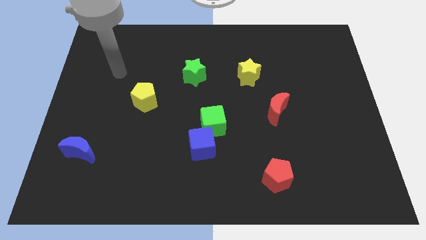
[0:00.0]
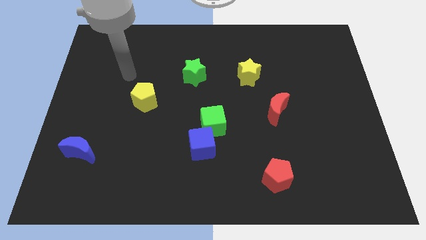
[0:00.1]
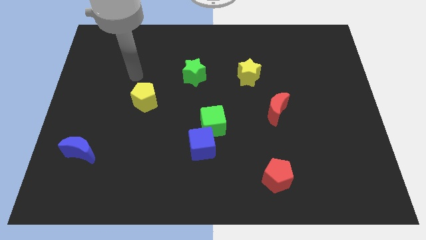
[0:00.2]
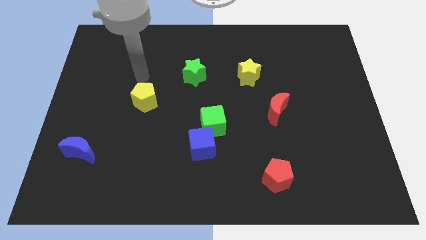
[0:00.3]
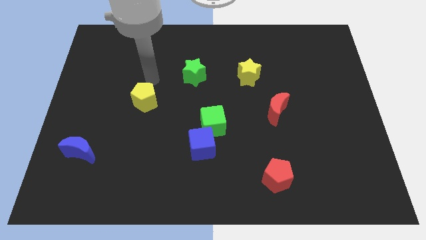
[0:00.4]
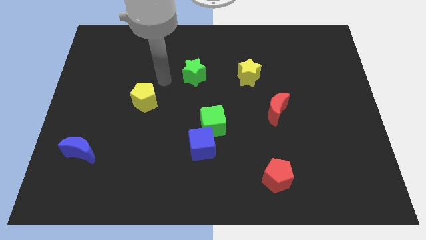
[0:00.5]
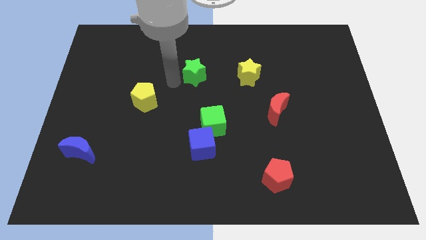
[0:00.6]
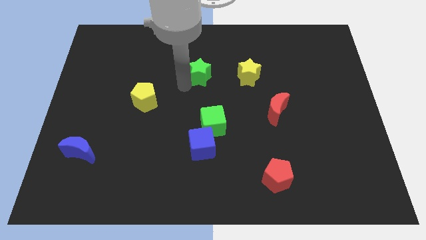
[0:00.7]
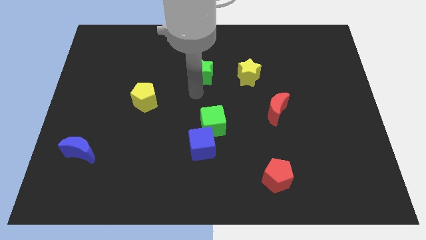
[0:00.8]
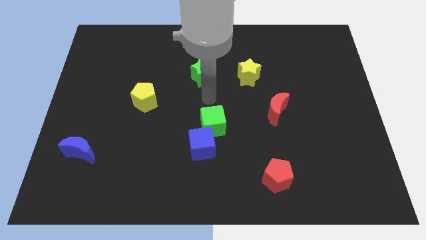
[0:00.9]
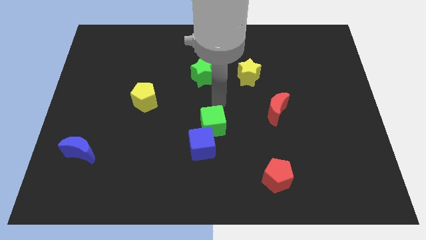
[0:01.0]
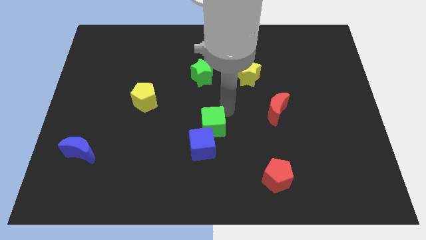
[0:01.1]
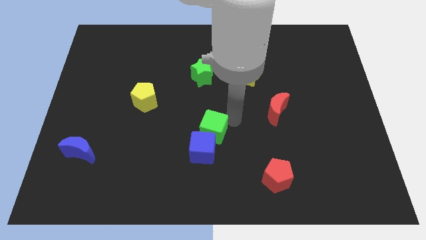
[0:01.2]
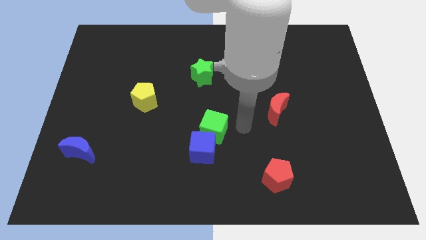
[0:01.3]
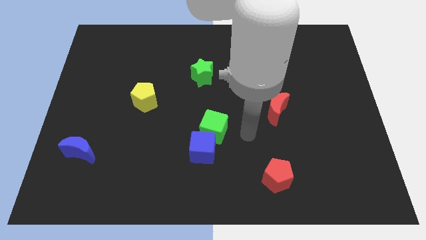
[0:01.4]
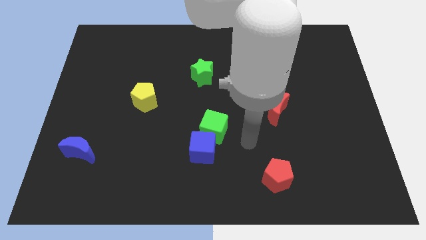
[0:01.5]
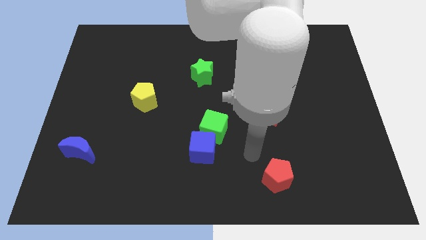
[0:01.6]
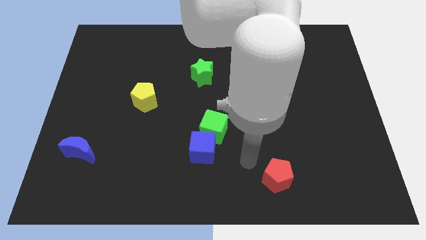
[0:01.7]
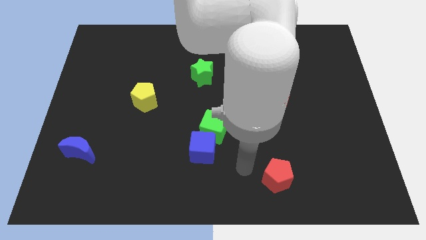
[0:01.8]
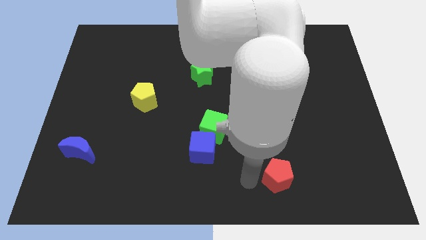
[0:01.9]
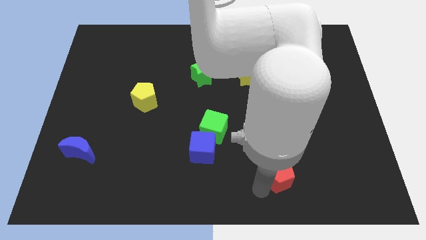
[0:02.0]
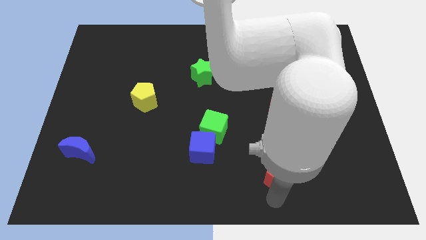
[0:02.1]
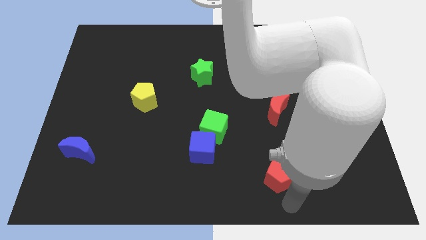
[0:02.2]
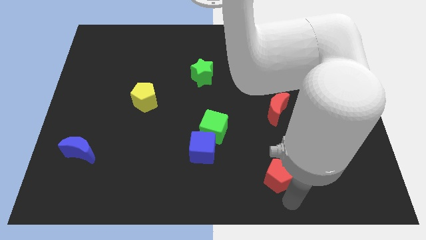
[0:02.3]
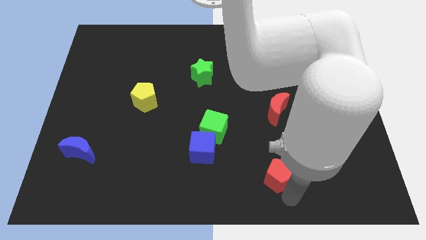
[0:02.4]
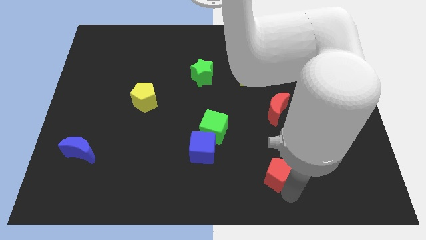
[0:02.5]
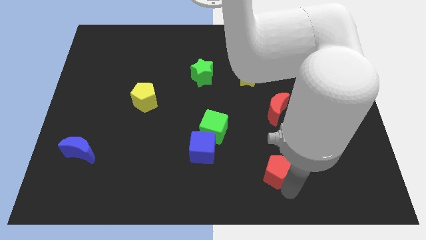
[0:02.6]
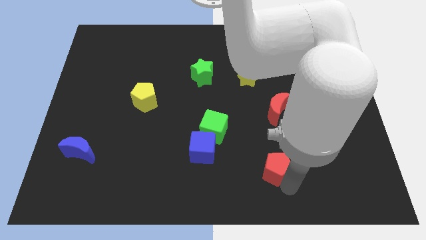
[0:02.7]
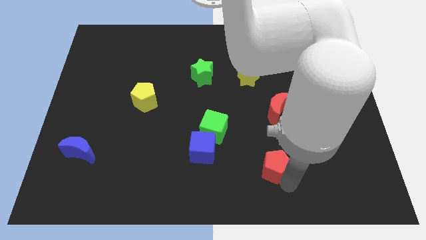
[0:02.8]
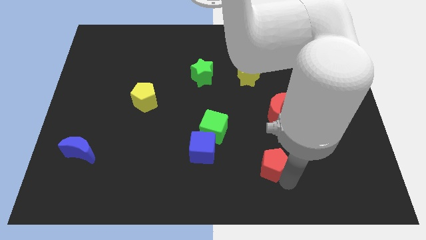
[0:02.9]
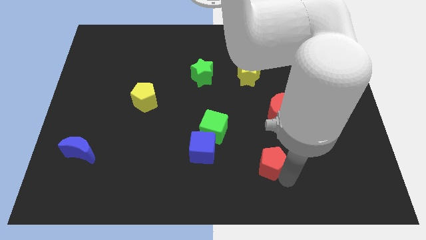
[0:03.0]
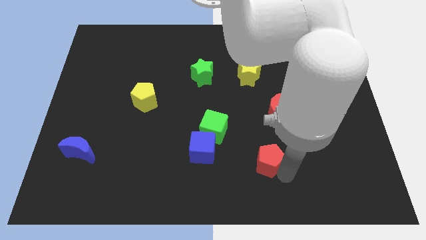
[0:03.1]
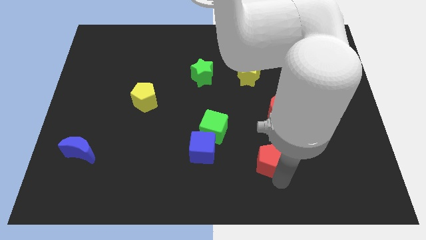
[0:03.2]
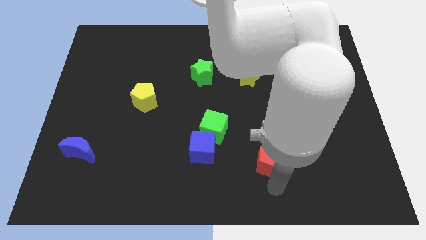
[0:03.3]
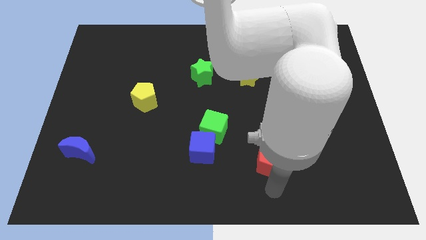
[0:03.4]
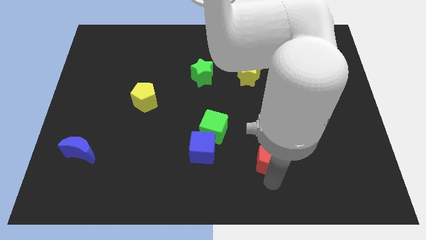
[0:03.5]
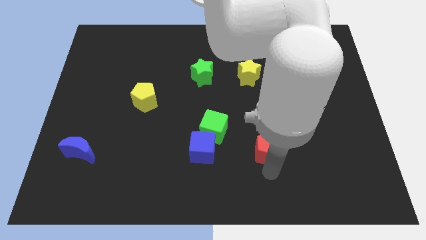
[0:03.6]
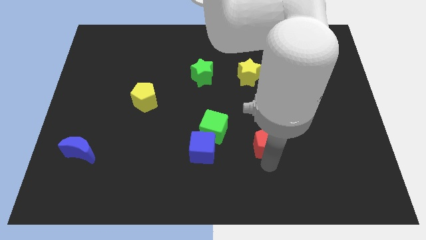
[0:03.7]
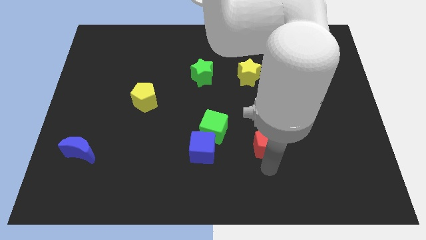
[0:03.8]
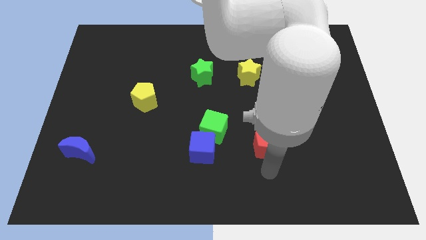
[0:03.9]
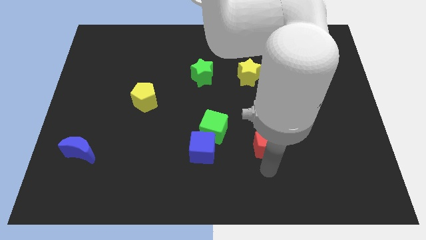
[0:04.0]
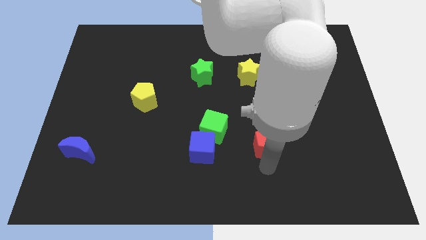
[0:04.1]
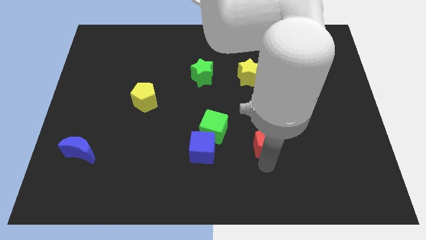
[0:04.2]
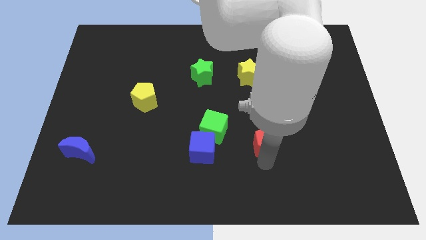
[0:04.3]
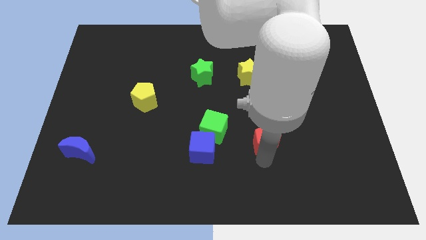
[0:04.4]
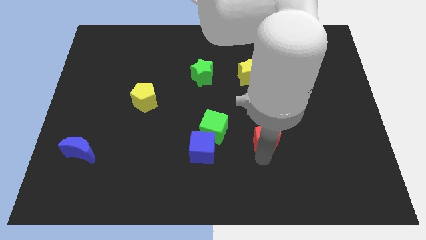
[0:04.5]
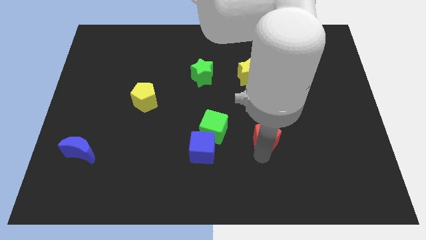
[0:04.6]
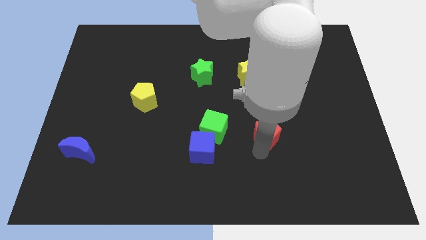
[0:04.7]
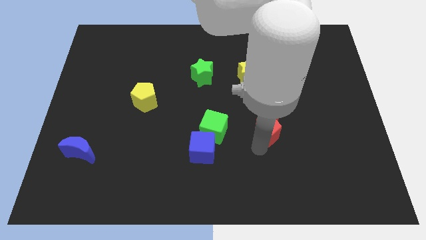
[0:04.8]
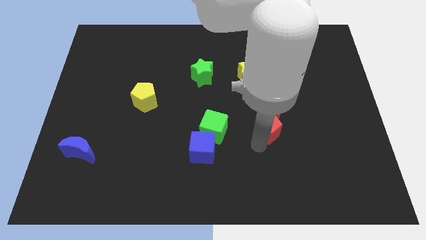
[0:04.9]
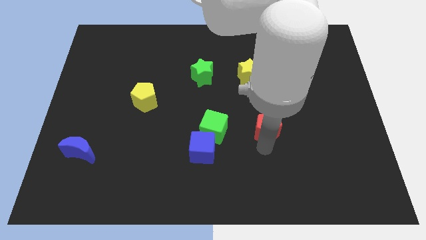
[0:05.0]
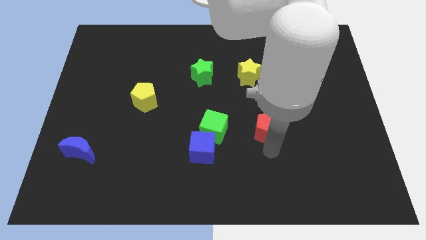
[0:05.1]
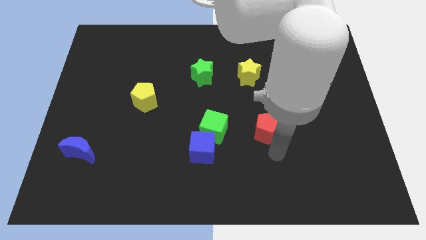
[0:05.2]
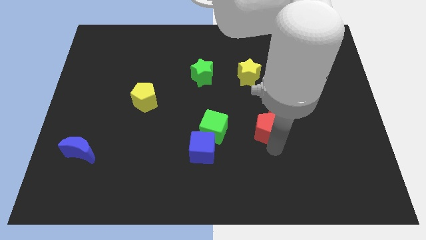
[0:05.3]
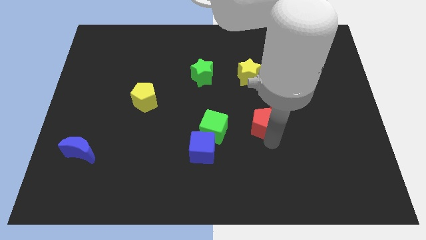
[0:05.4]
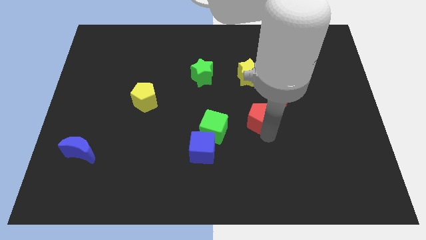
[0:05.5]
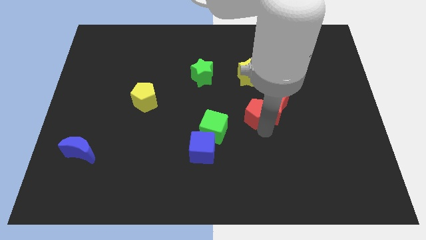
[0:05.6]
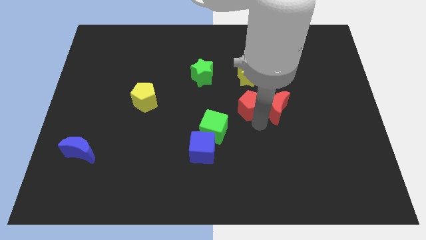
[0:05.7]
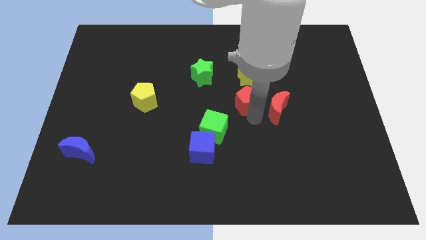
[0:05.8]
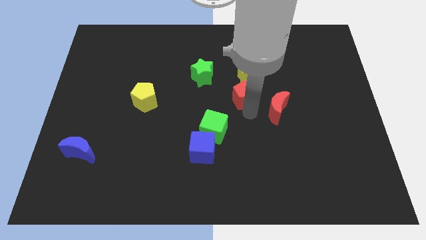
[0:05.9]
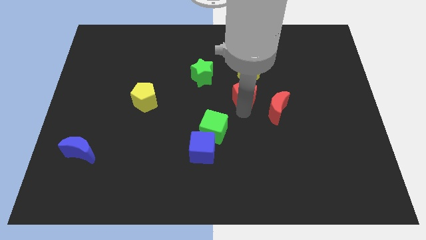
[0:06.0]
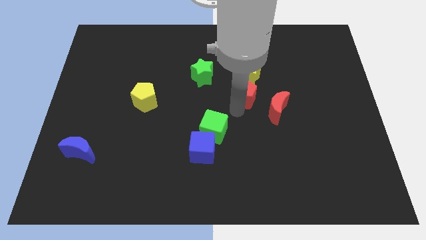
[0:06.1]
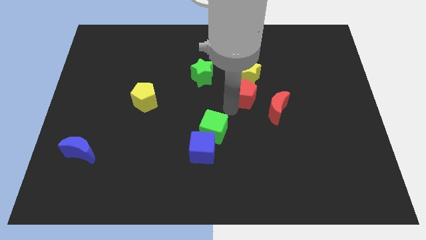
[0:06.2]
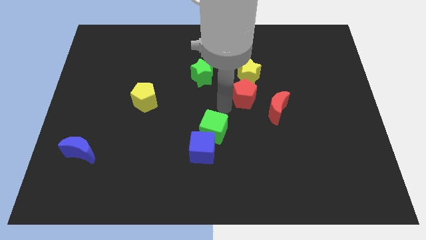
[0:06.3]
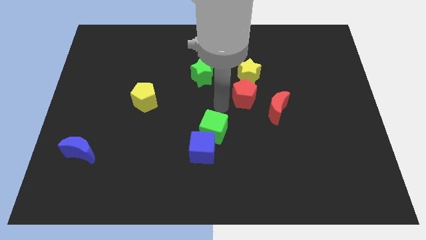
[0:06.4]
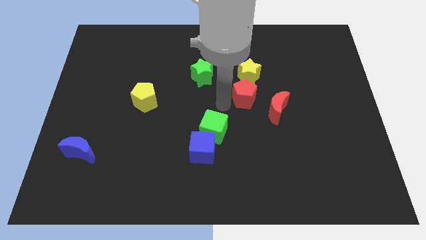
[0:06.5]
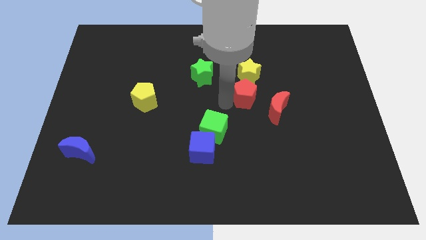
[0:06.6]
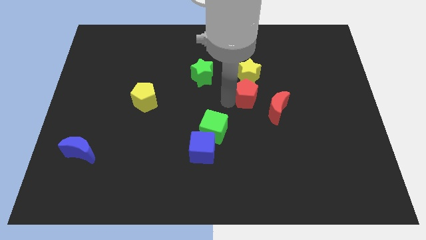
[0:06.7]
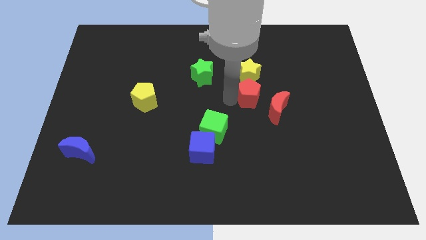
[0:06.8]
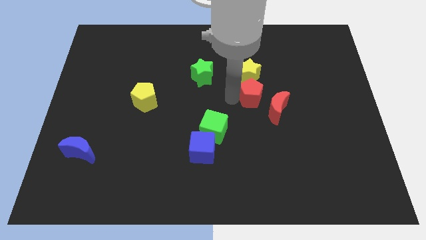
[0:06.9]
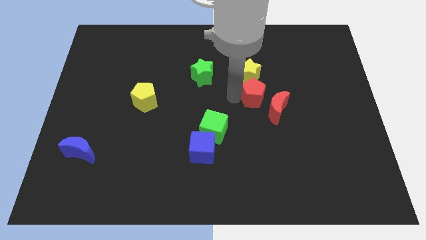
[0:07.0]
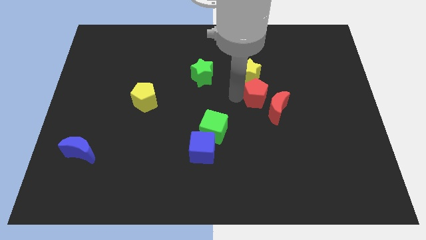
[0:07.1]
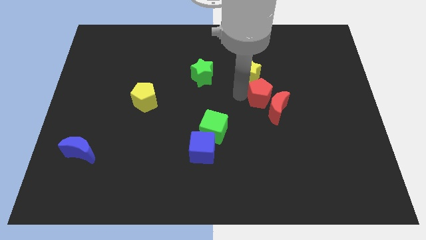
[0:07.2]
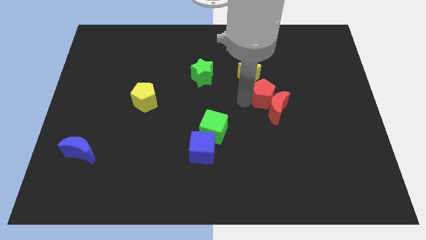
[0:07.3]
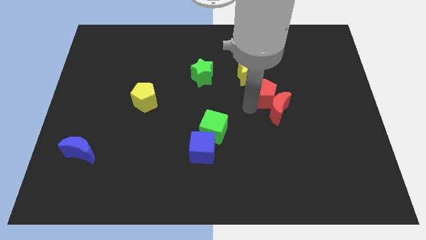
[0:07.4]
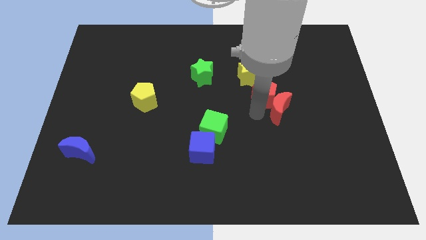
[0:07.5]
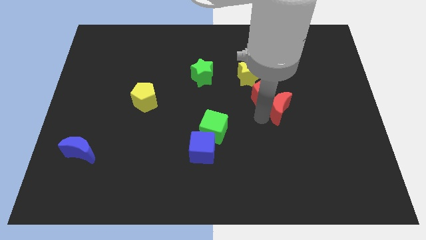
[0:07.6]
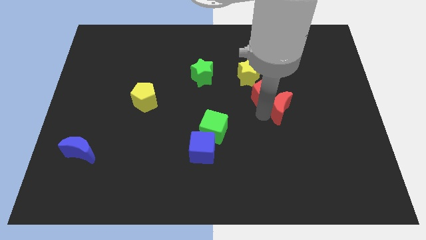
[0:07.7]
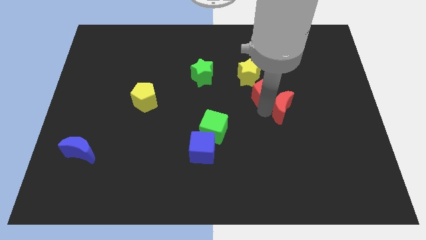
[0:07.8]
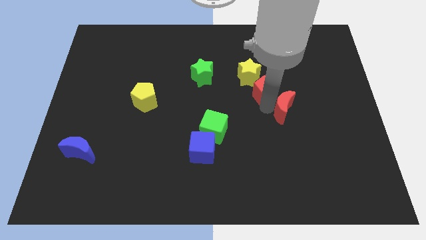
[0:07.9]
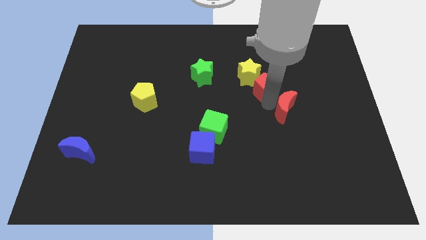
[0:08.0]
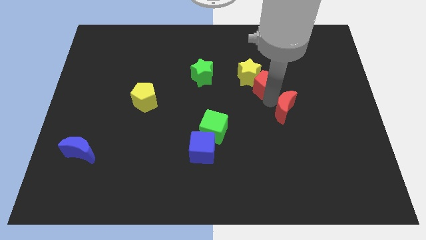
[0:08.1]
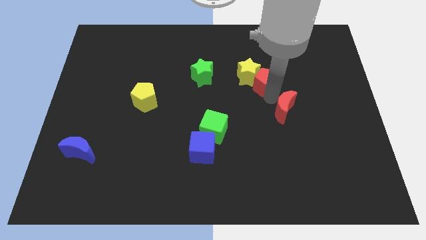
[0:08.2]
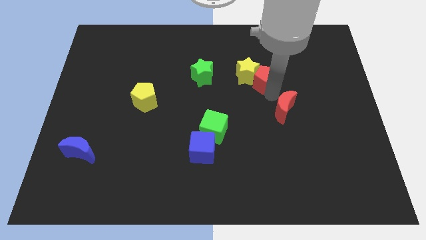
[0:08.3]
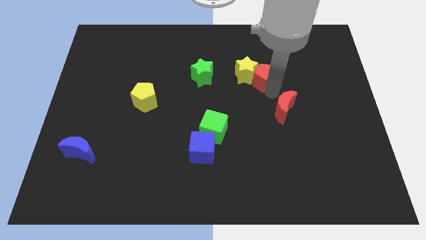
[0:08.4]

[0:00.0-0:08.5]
move the red pentagon to the top right side of the yellow star
